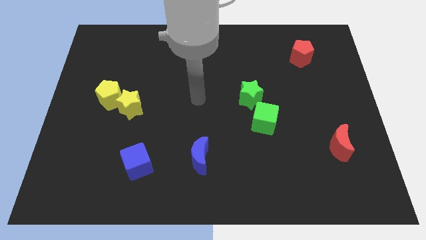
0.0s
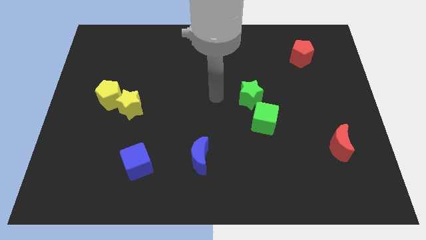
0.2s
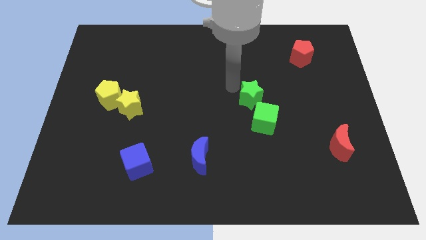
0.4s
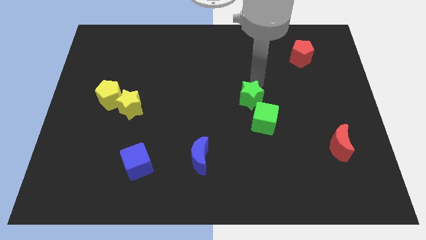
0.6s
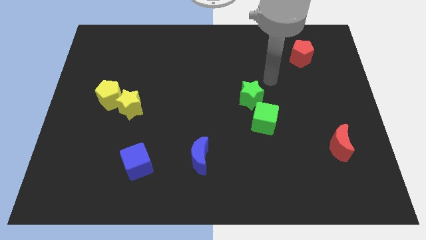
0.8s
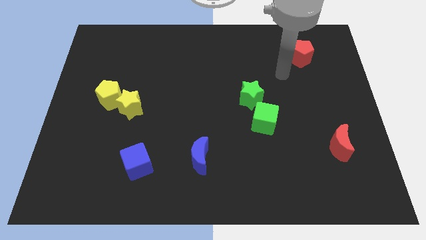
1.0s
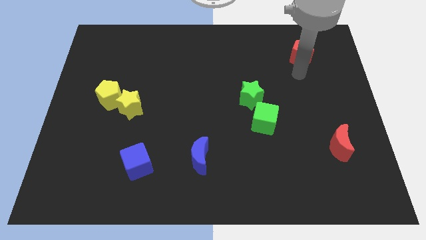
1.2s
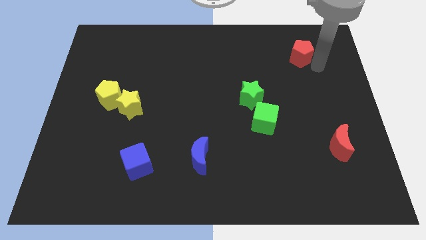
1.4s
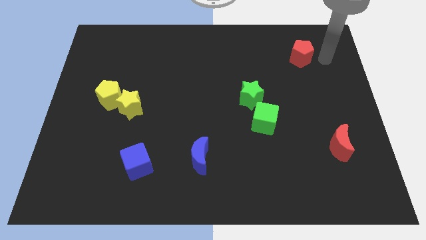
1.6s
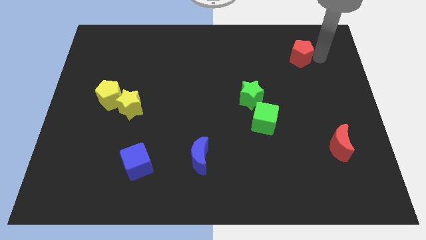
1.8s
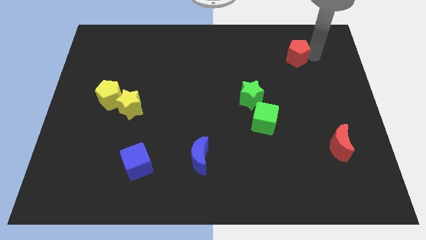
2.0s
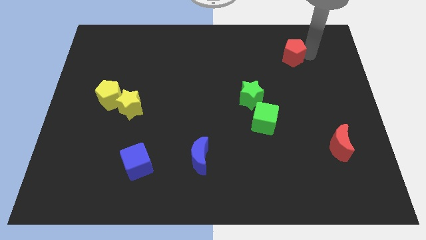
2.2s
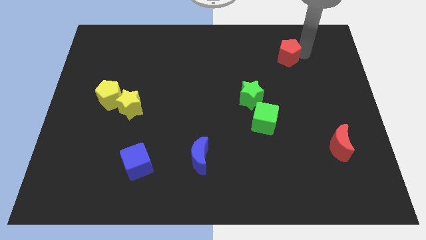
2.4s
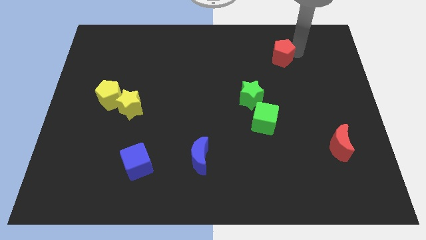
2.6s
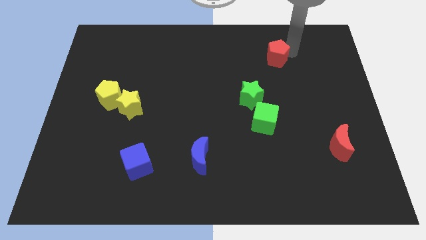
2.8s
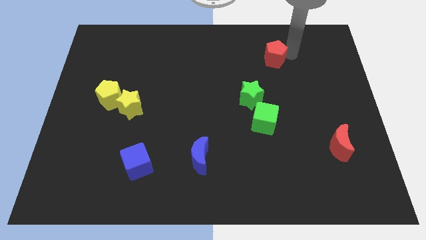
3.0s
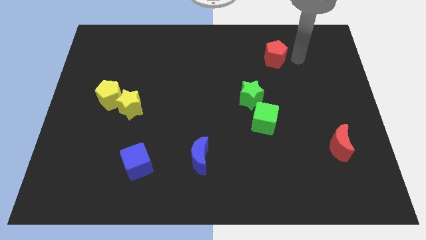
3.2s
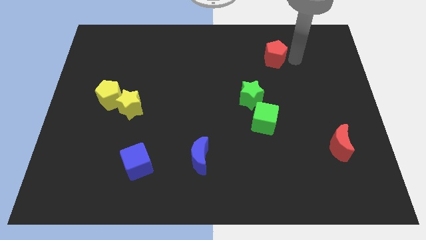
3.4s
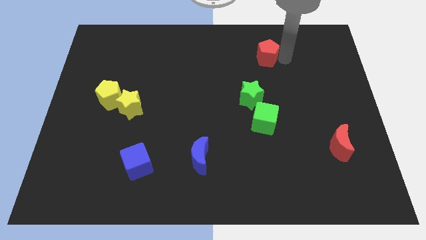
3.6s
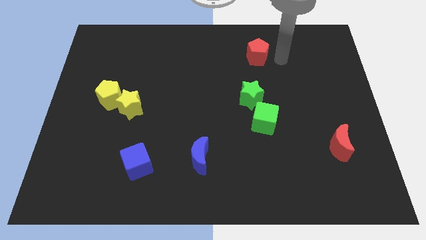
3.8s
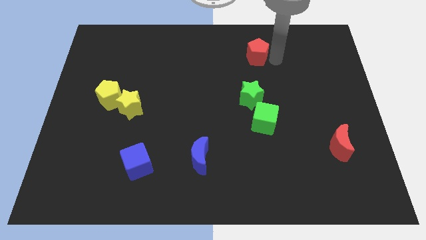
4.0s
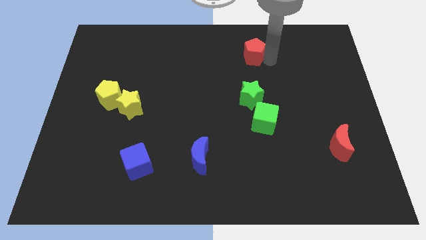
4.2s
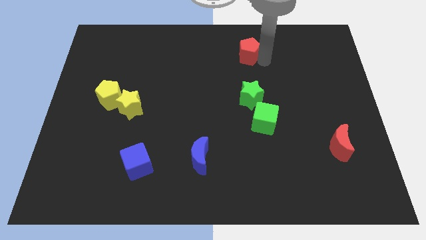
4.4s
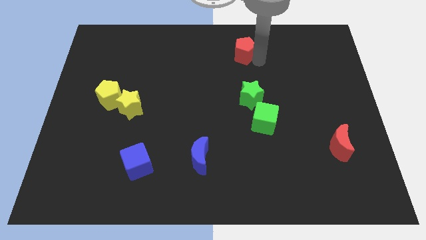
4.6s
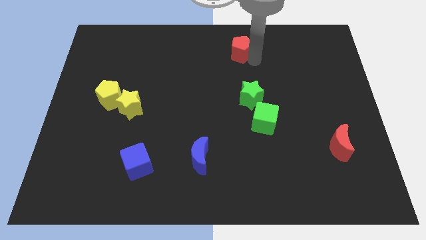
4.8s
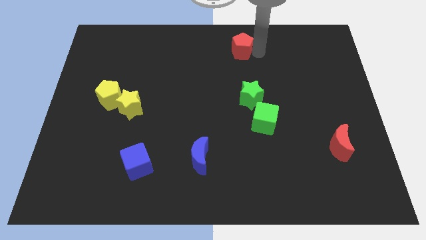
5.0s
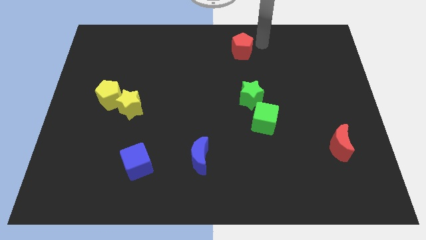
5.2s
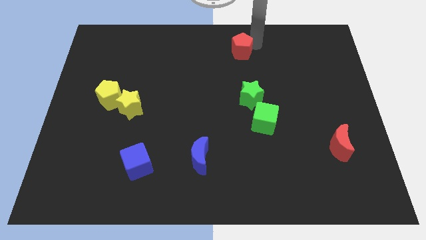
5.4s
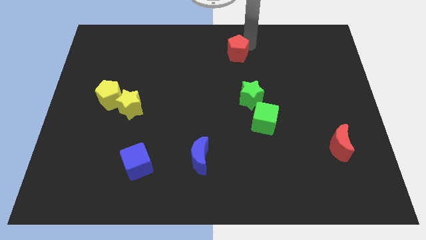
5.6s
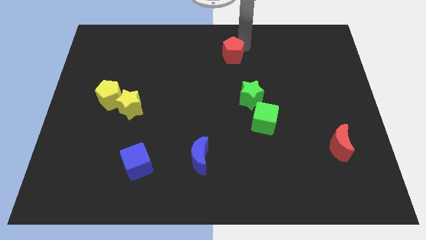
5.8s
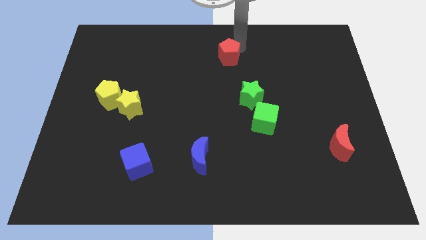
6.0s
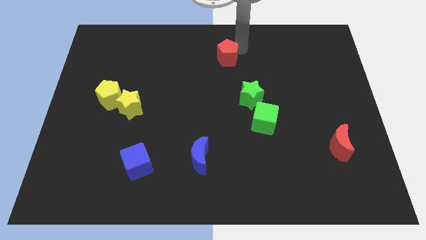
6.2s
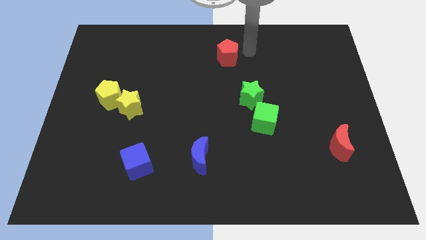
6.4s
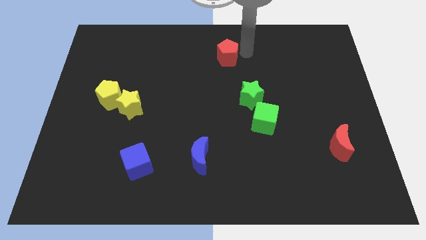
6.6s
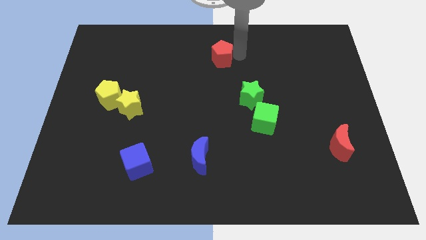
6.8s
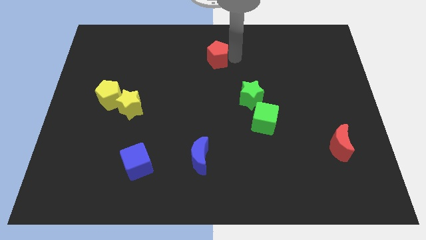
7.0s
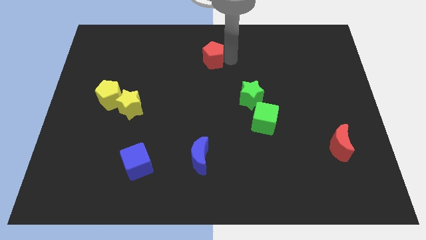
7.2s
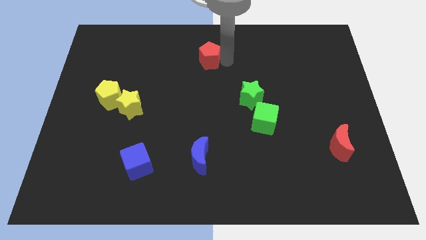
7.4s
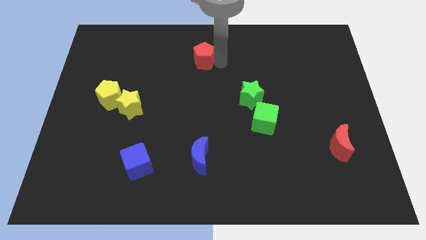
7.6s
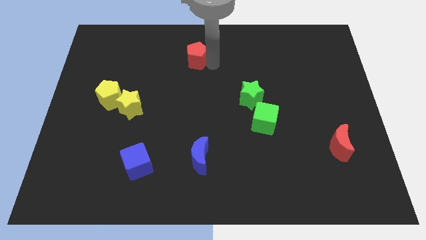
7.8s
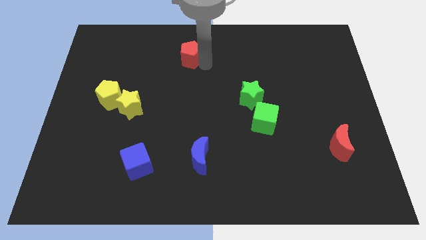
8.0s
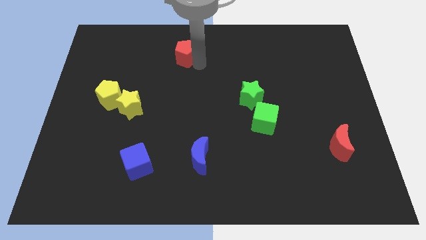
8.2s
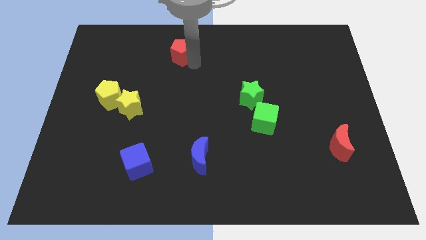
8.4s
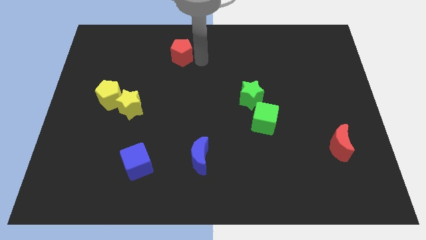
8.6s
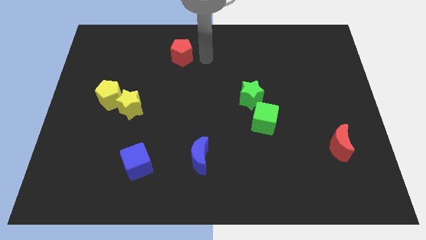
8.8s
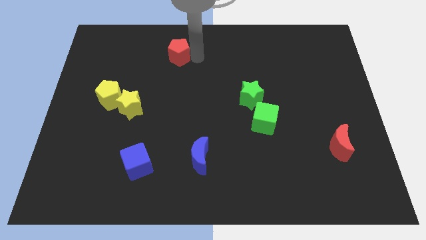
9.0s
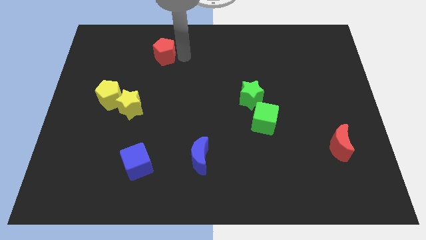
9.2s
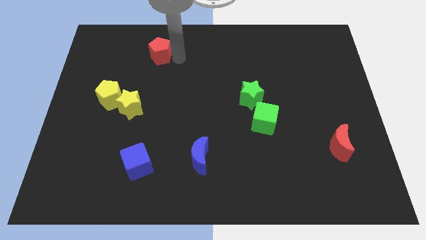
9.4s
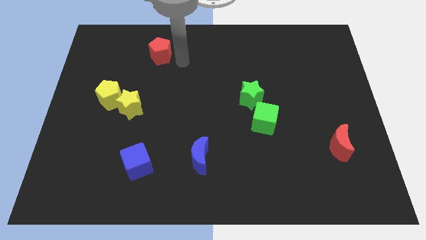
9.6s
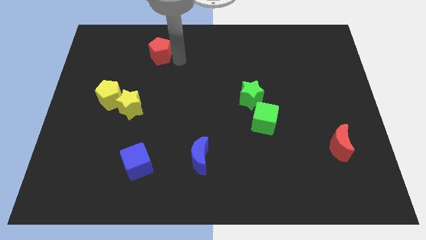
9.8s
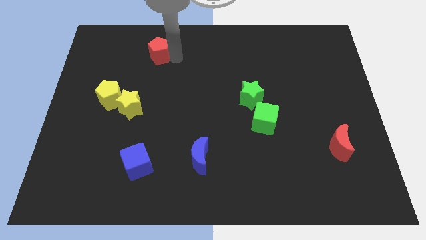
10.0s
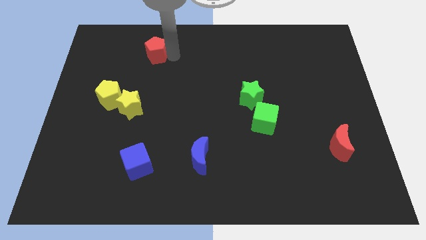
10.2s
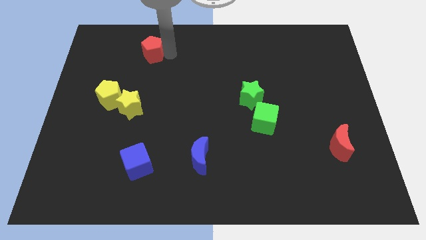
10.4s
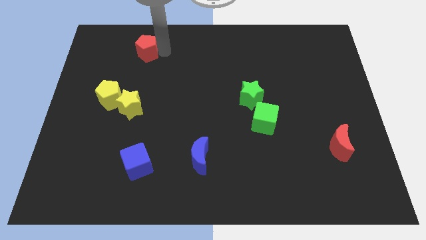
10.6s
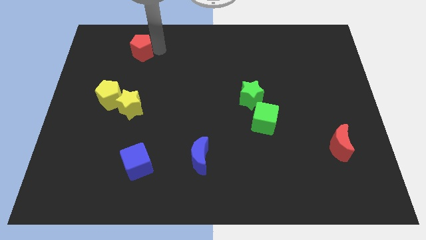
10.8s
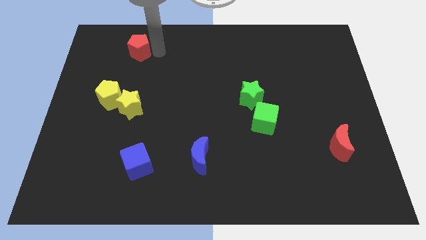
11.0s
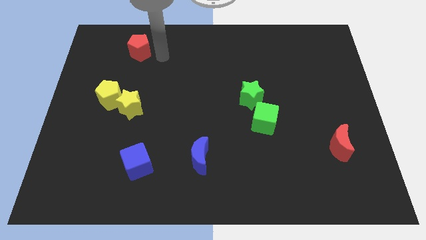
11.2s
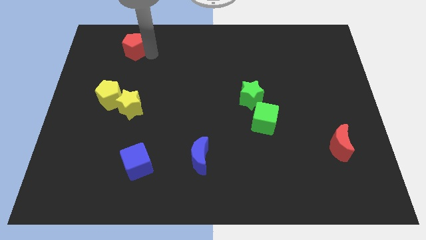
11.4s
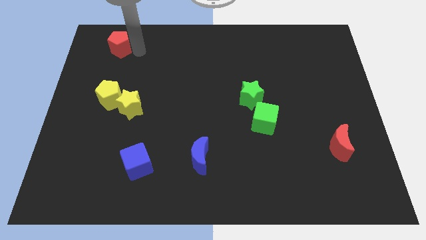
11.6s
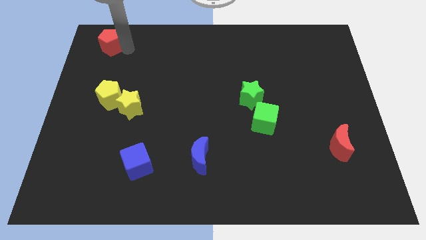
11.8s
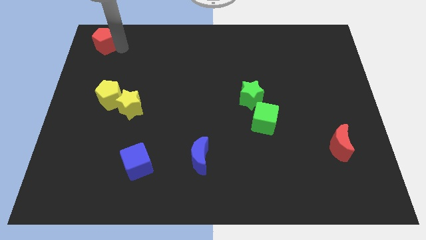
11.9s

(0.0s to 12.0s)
push the red pentagon to the top left
